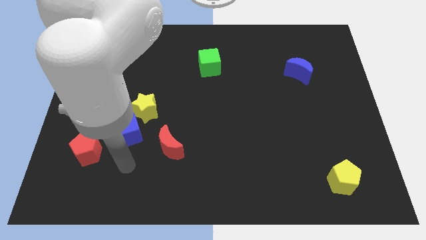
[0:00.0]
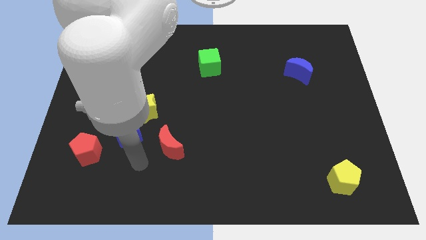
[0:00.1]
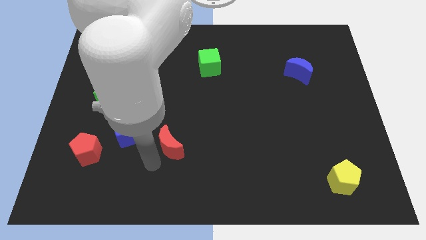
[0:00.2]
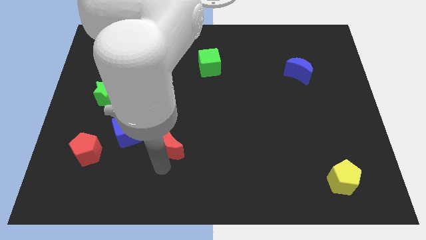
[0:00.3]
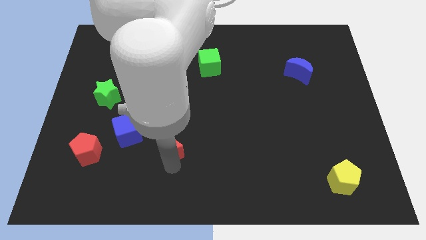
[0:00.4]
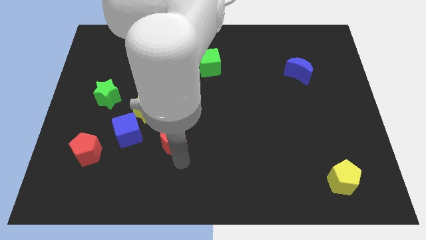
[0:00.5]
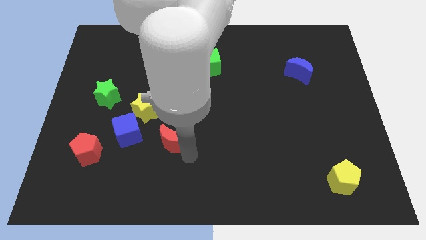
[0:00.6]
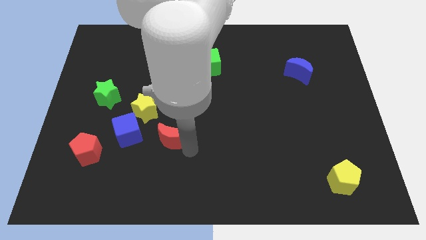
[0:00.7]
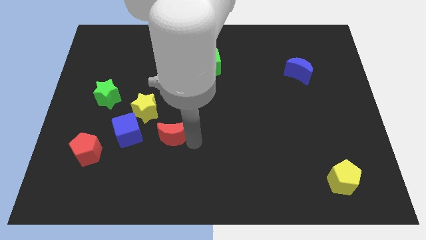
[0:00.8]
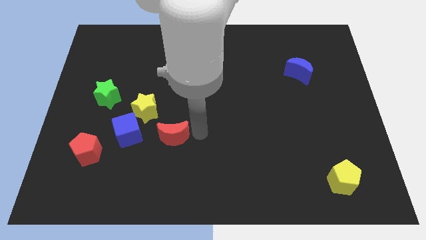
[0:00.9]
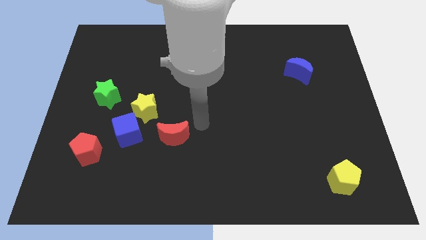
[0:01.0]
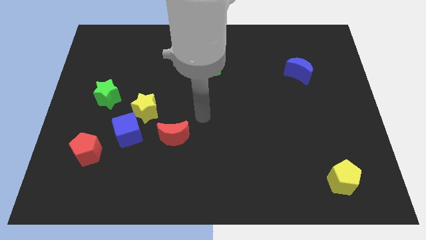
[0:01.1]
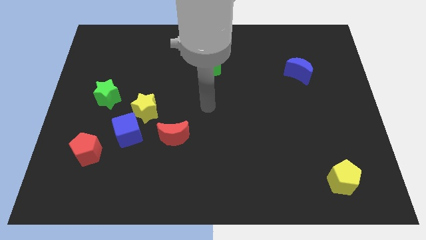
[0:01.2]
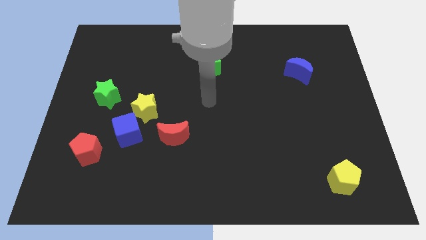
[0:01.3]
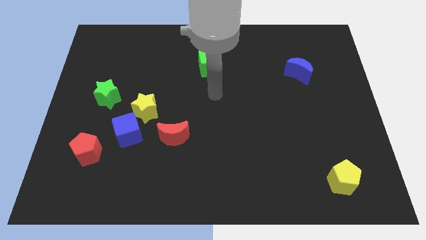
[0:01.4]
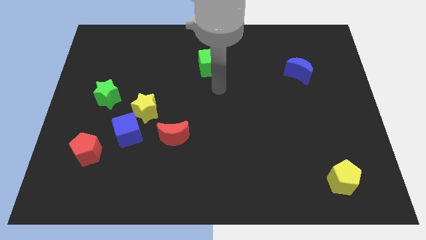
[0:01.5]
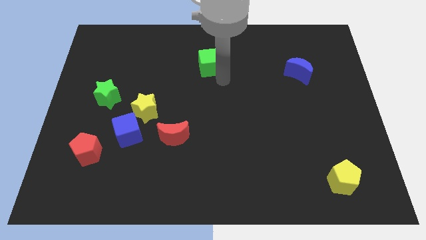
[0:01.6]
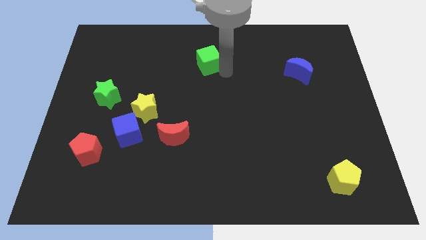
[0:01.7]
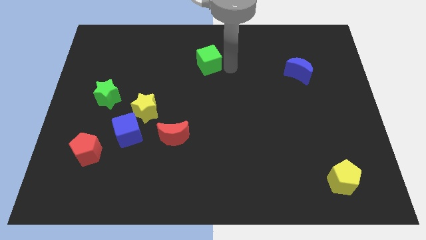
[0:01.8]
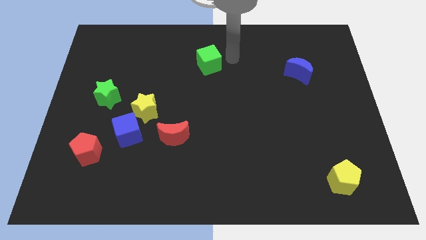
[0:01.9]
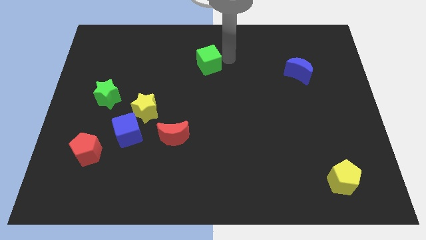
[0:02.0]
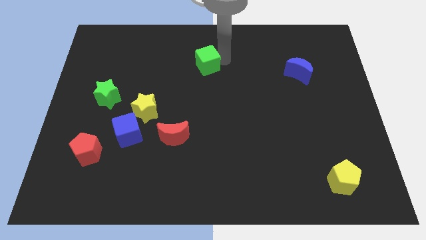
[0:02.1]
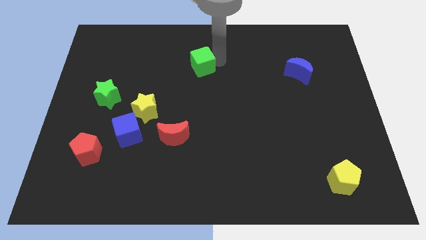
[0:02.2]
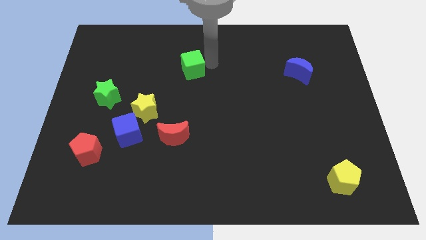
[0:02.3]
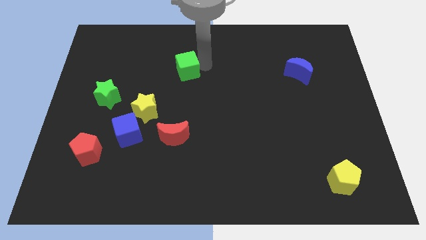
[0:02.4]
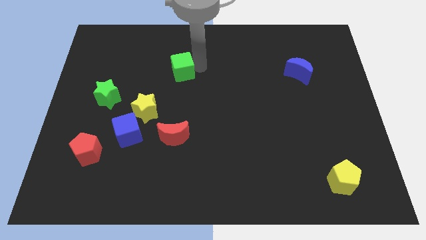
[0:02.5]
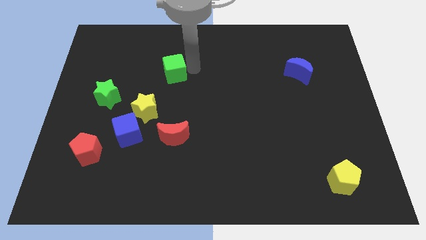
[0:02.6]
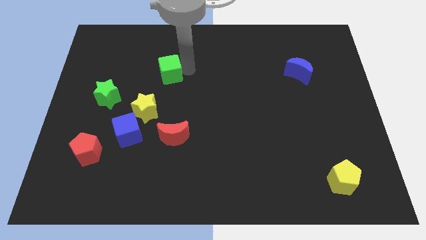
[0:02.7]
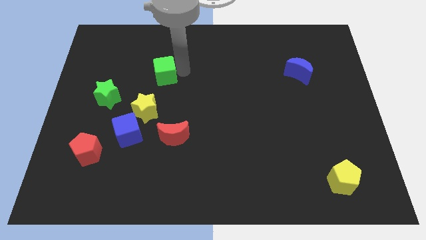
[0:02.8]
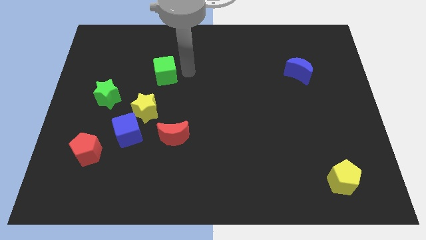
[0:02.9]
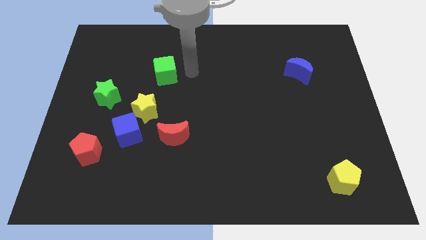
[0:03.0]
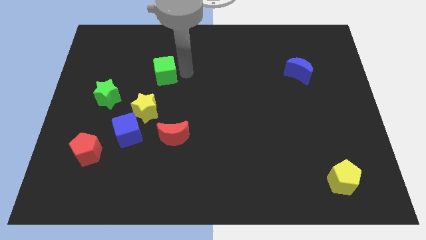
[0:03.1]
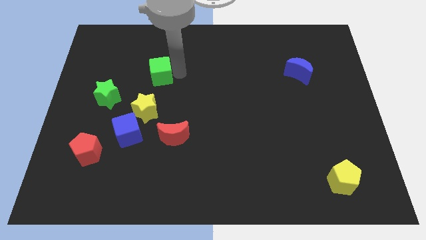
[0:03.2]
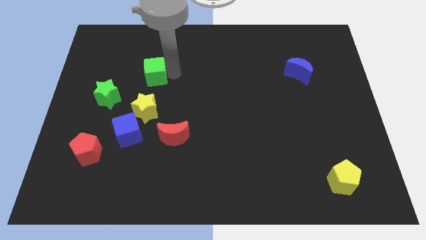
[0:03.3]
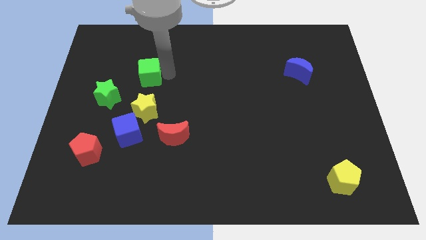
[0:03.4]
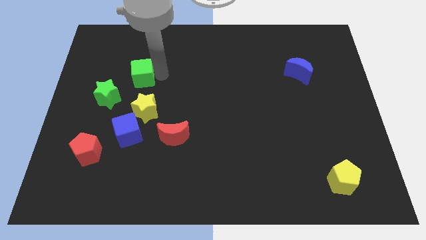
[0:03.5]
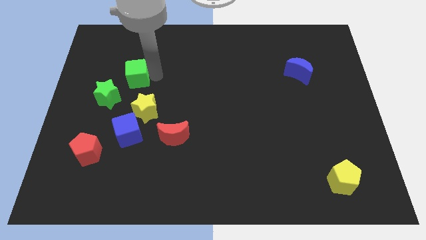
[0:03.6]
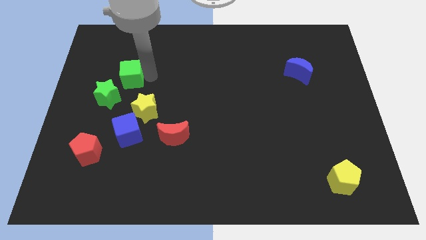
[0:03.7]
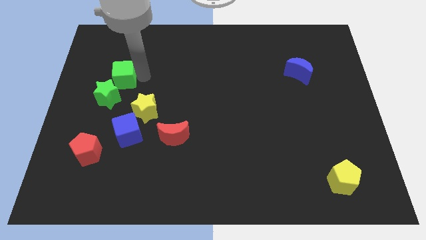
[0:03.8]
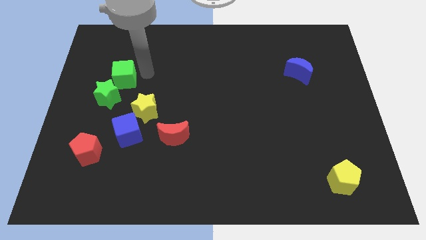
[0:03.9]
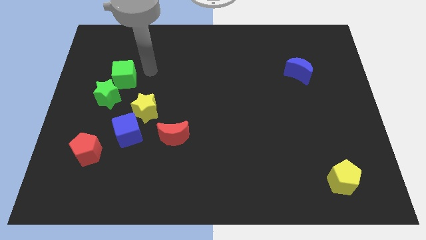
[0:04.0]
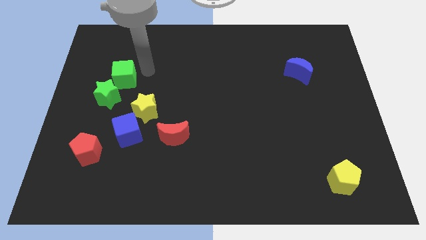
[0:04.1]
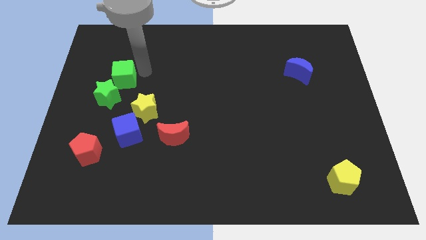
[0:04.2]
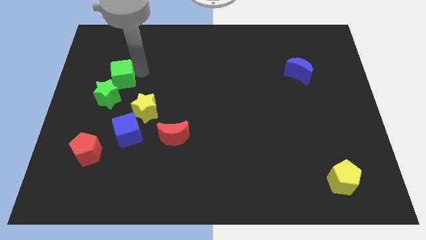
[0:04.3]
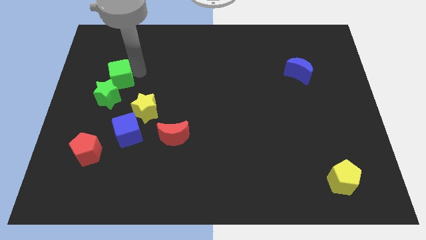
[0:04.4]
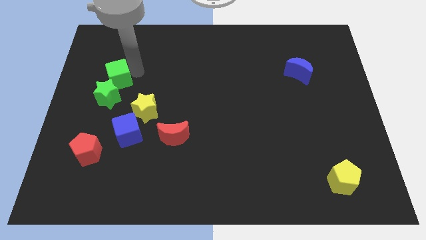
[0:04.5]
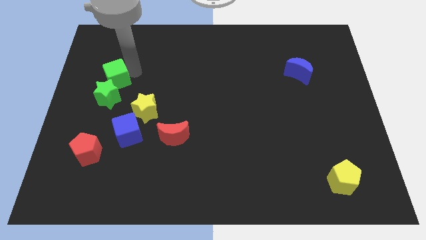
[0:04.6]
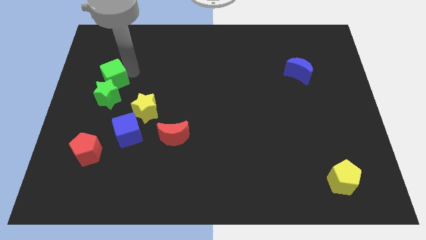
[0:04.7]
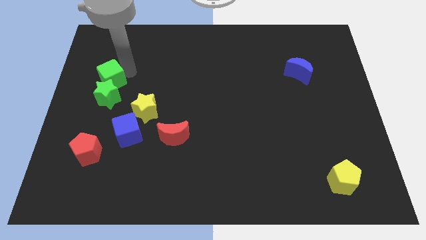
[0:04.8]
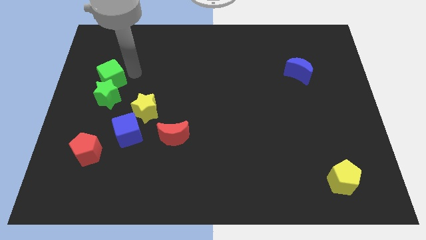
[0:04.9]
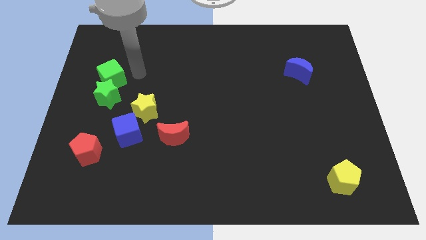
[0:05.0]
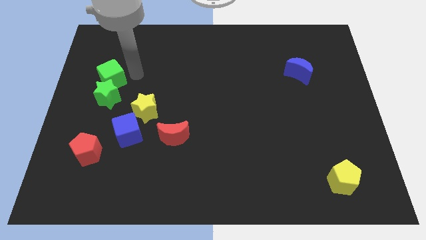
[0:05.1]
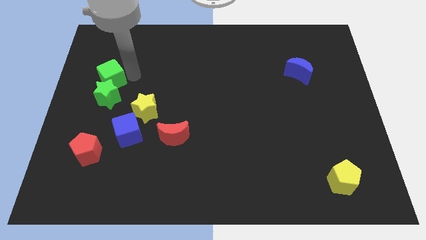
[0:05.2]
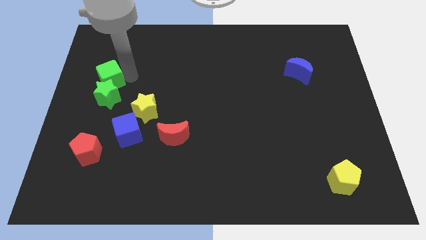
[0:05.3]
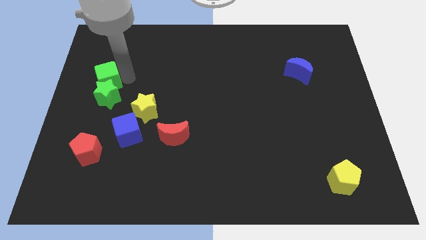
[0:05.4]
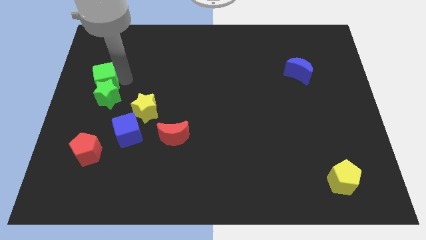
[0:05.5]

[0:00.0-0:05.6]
put the green cube to the center left
